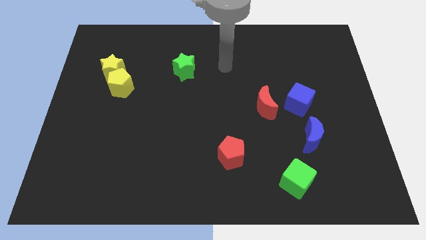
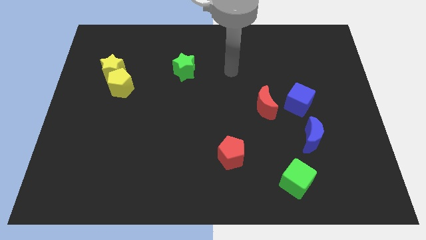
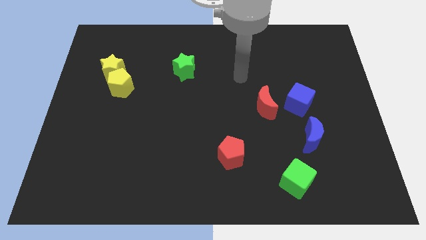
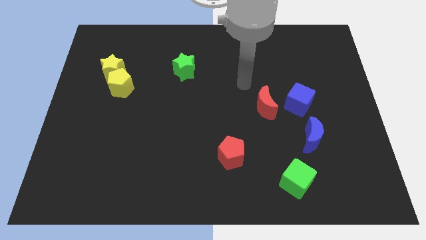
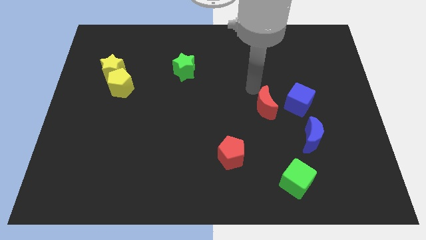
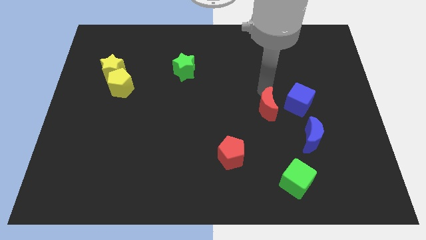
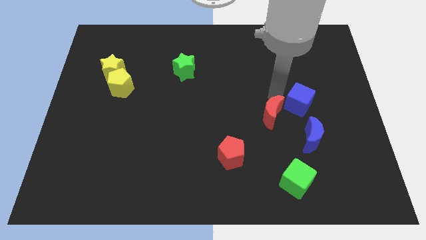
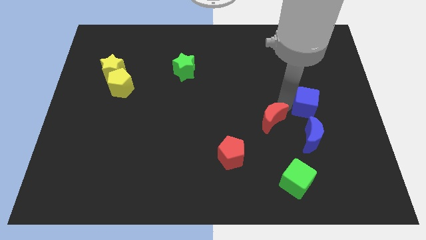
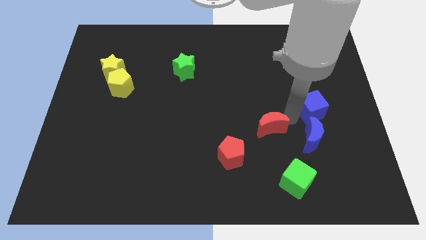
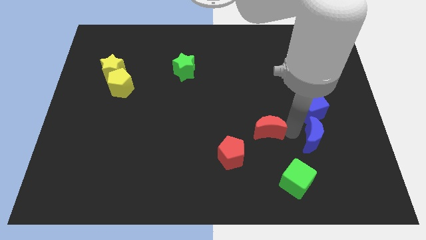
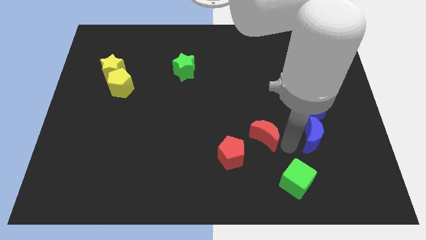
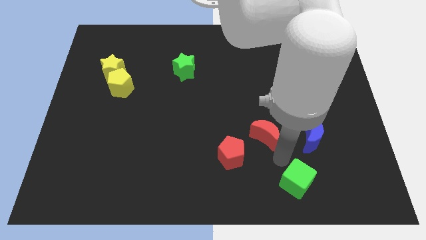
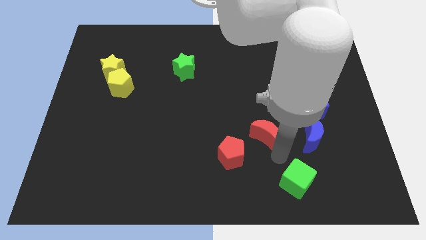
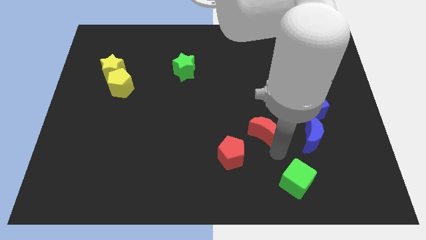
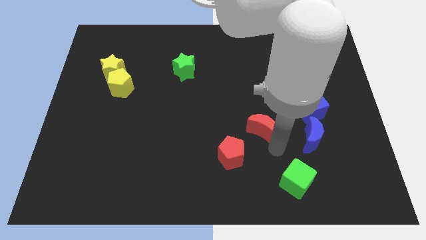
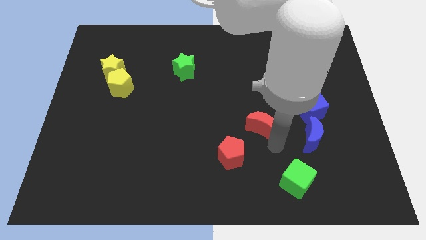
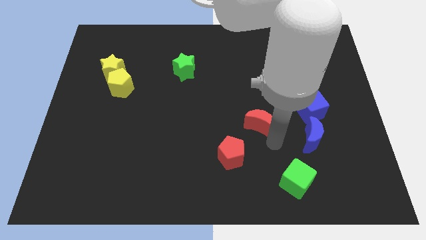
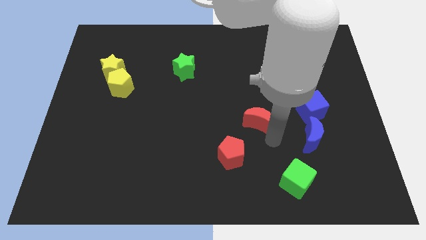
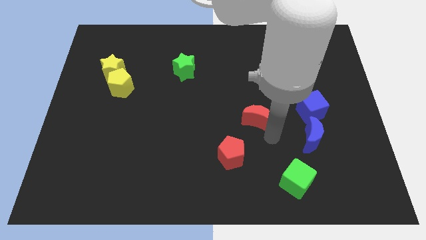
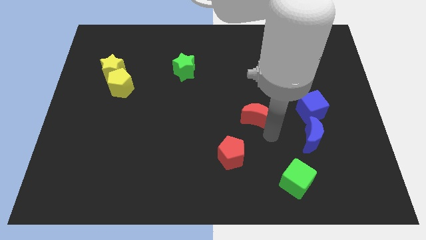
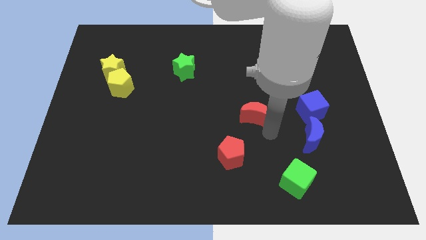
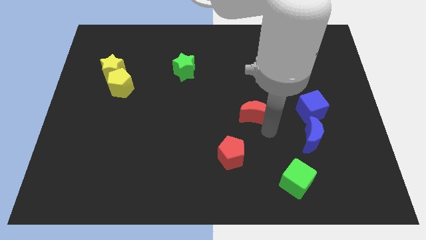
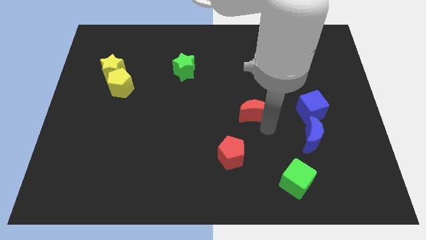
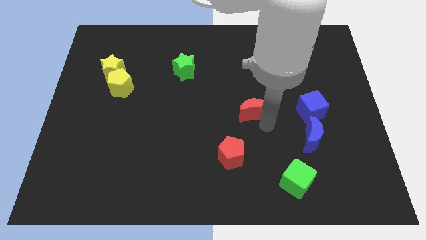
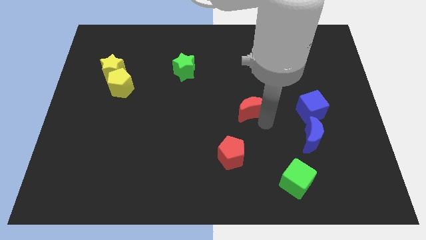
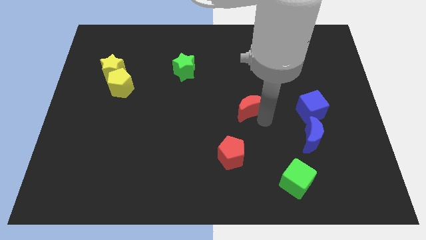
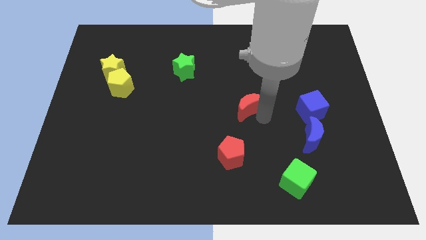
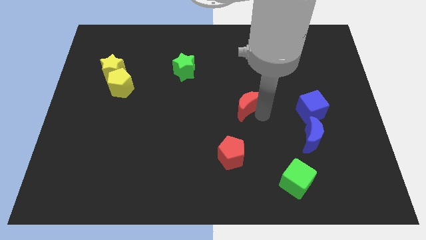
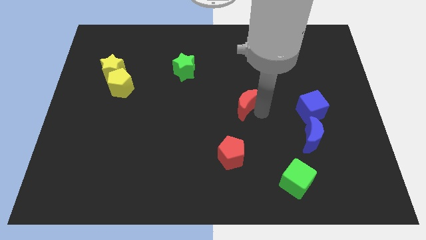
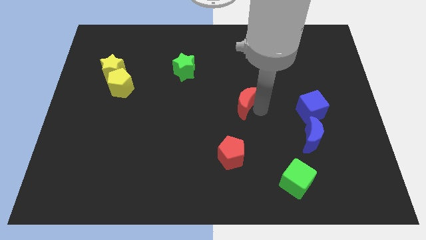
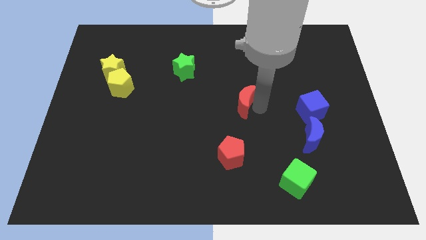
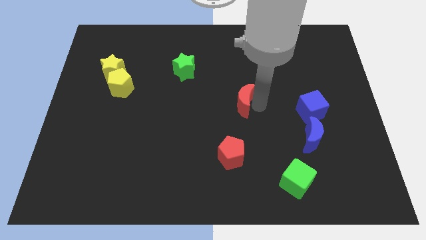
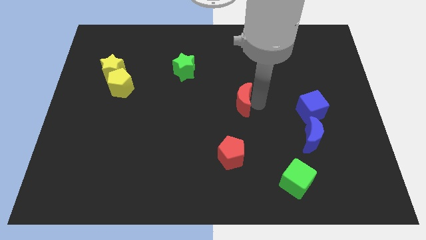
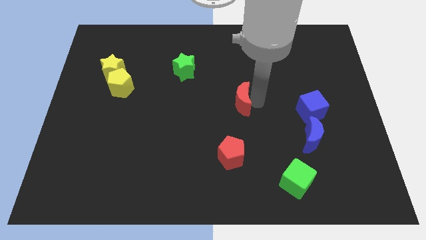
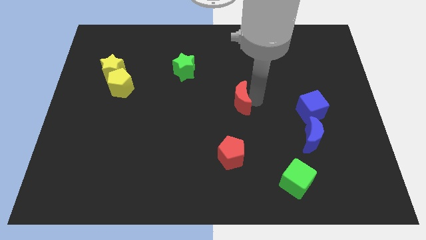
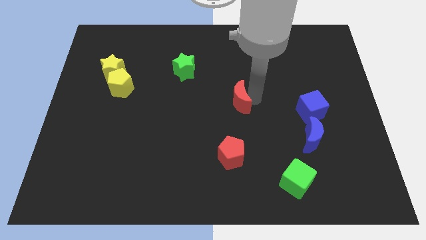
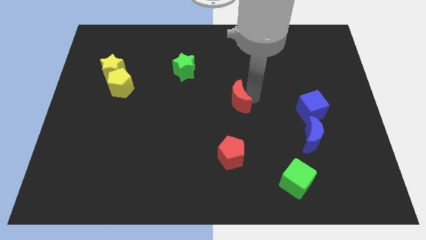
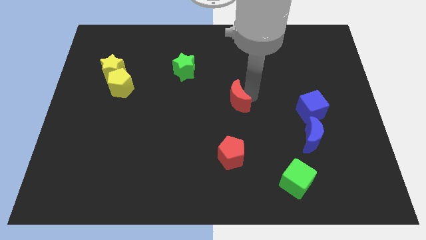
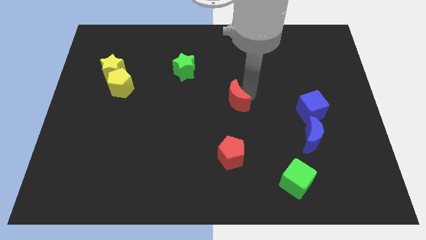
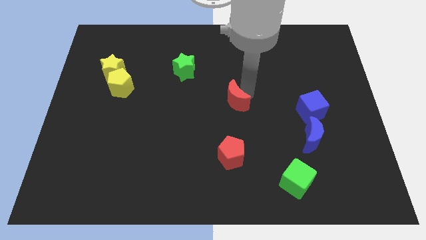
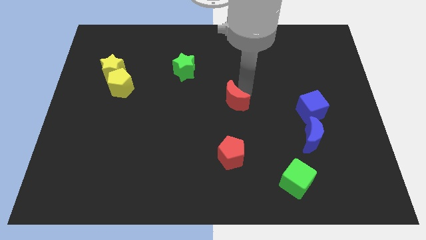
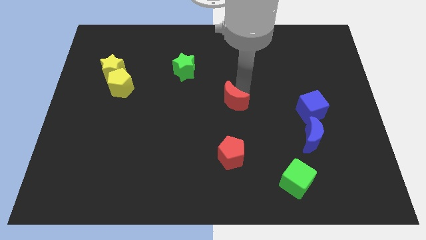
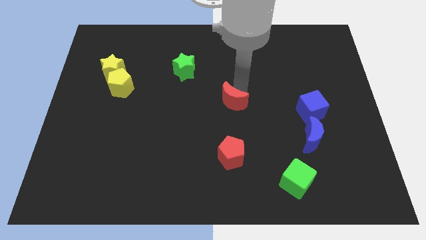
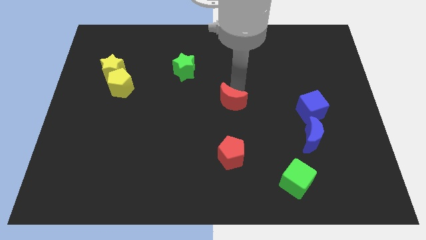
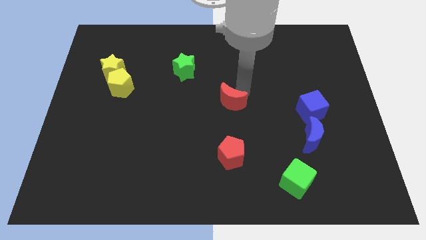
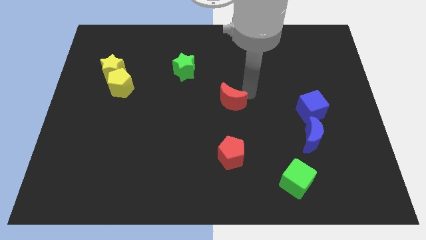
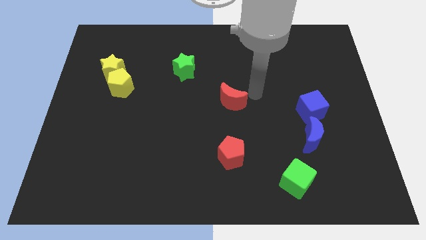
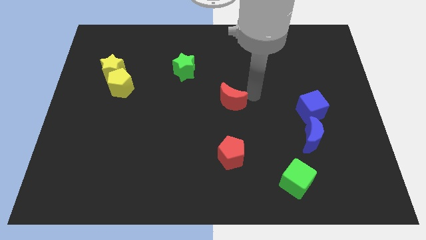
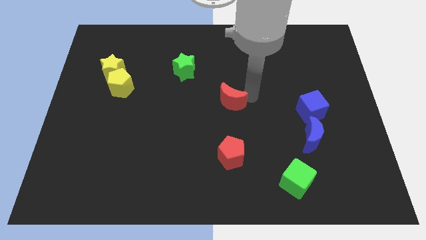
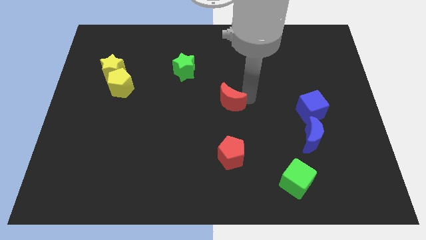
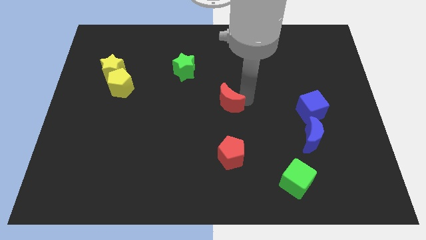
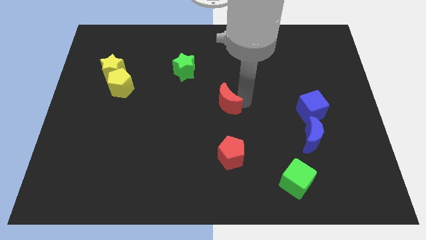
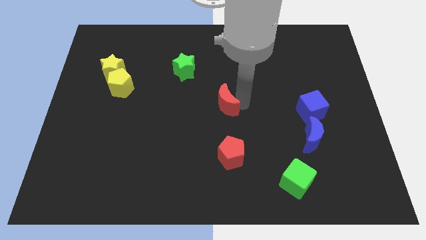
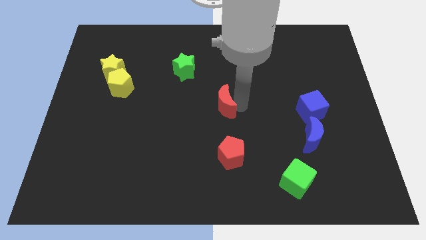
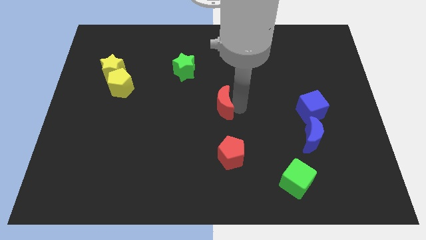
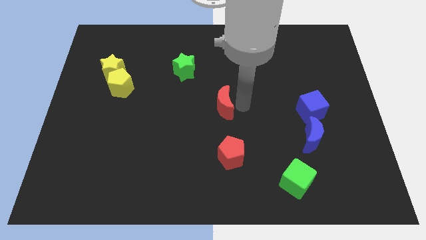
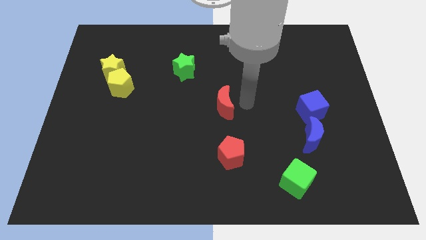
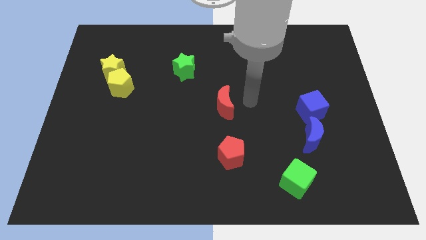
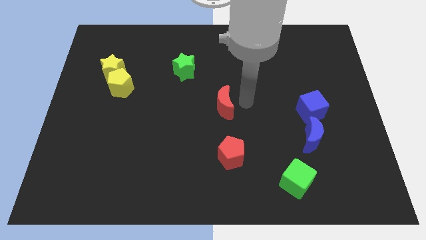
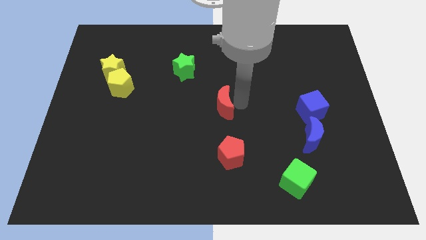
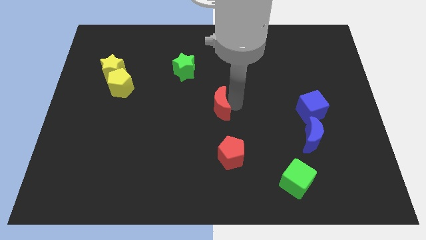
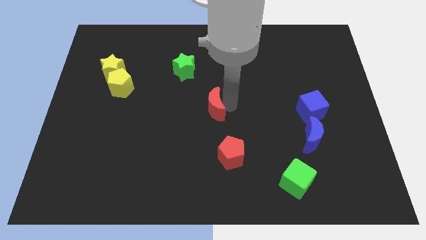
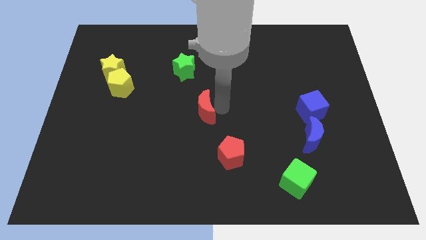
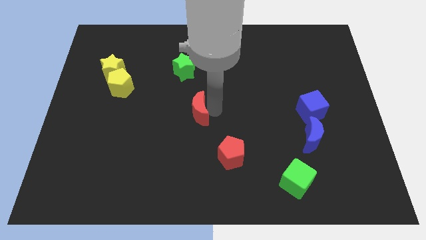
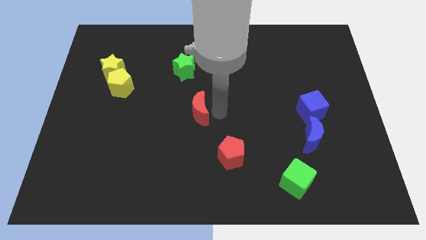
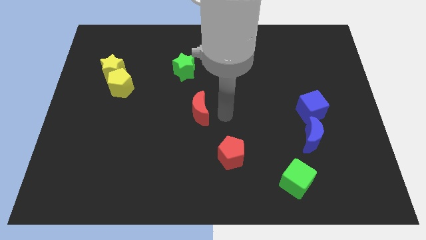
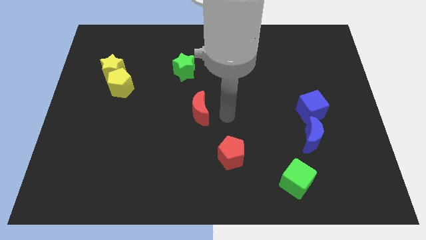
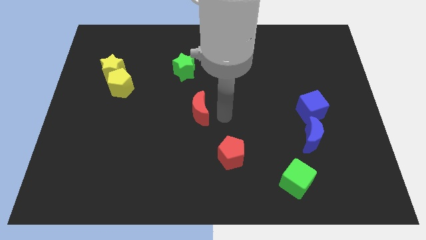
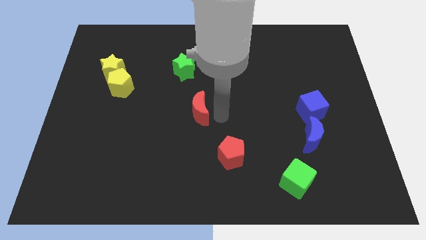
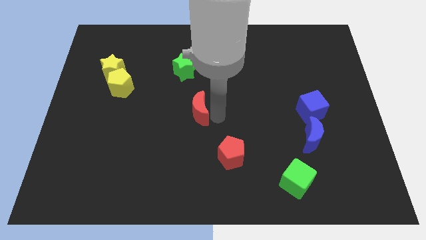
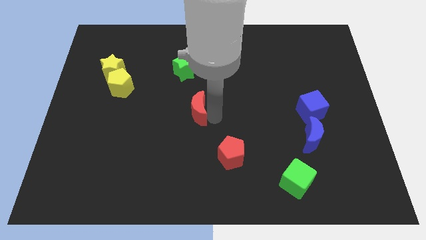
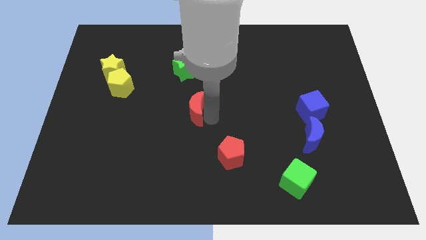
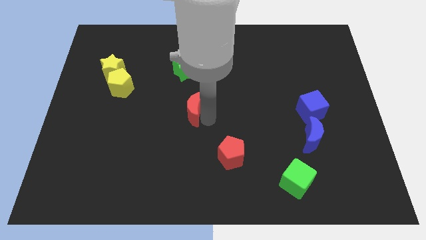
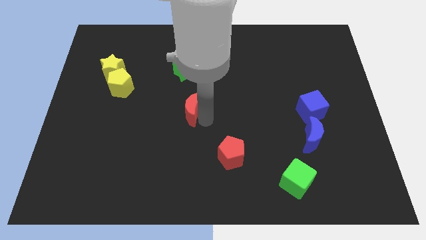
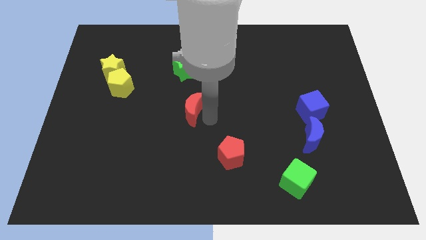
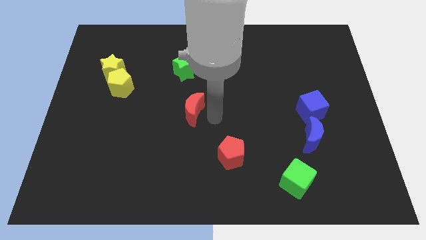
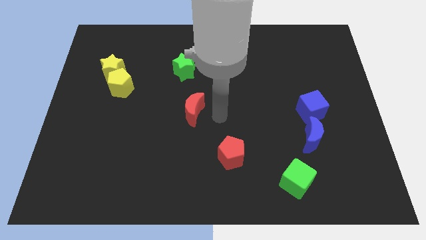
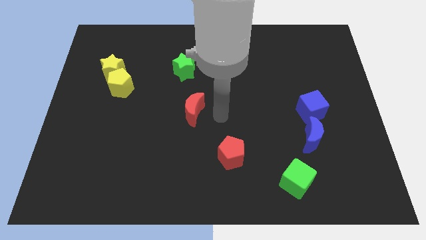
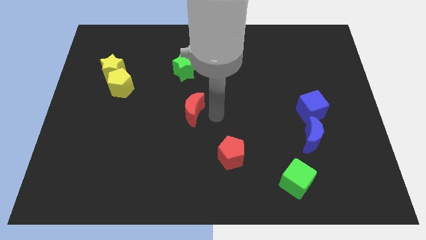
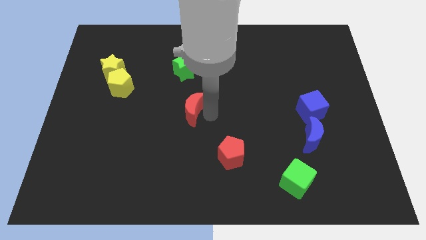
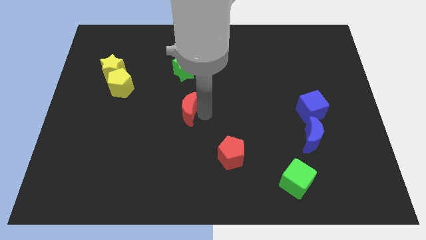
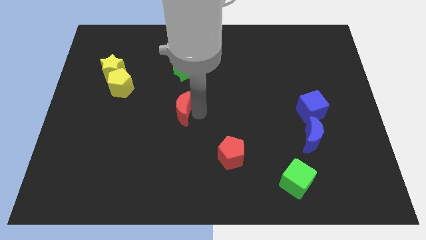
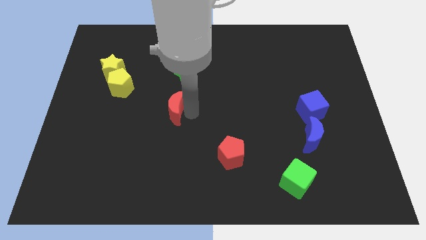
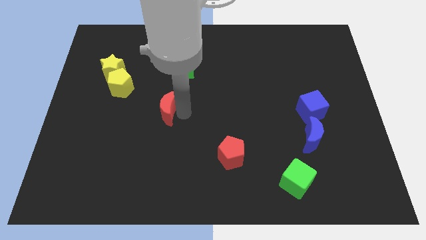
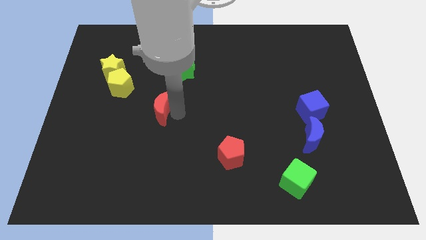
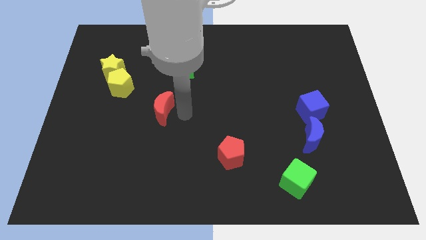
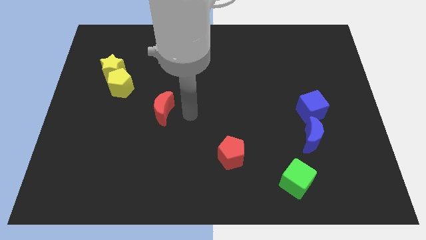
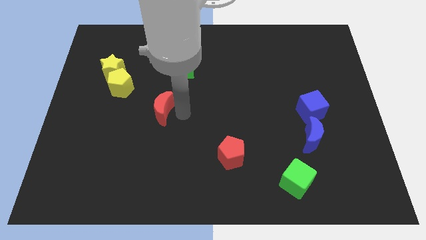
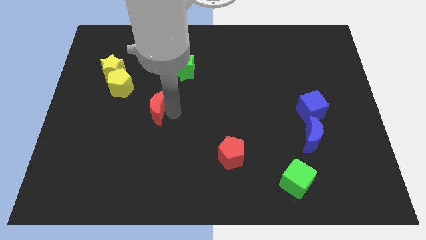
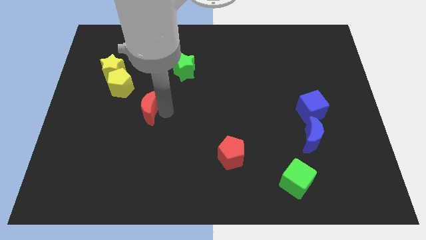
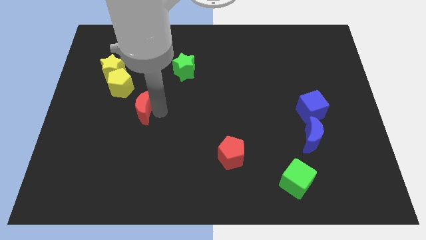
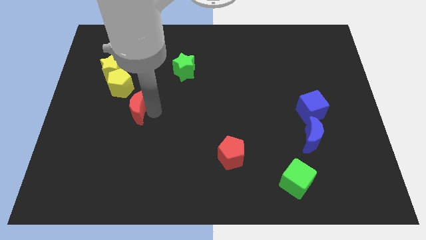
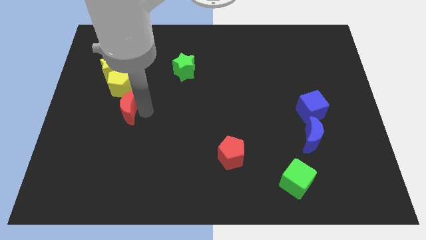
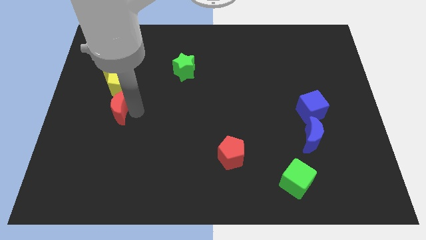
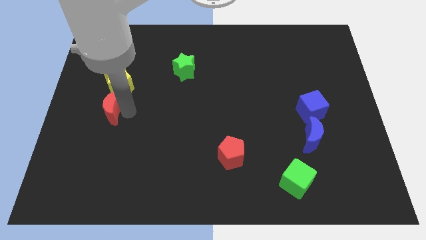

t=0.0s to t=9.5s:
slide the red moon to the bottom left of the yellow pentagon
